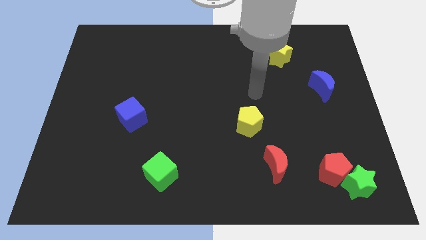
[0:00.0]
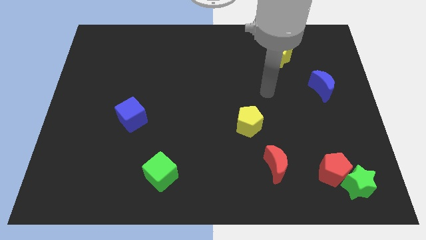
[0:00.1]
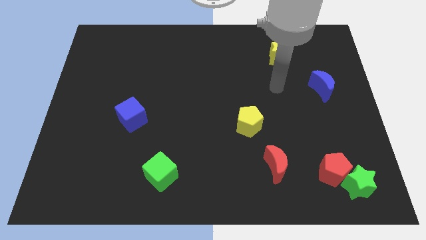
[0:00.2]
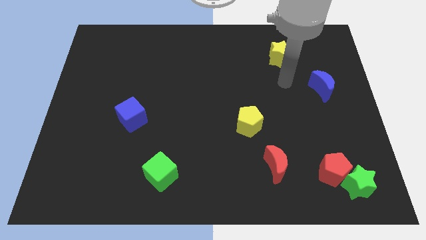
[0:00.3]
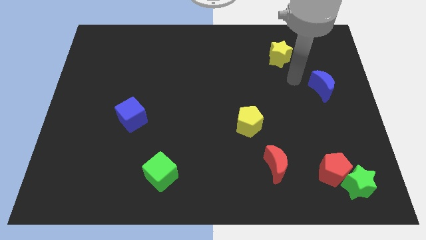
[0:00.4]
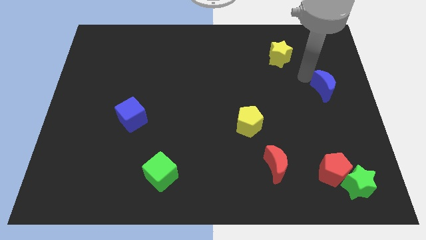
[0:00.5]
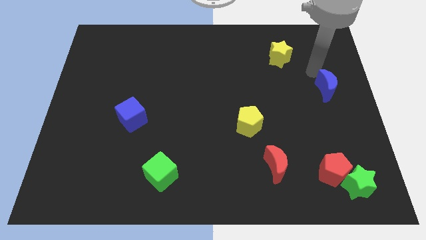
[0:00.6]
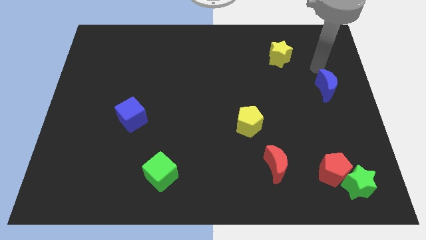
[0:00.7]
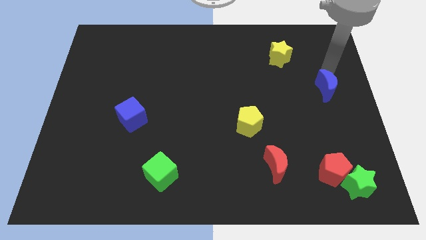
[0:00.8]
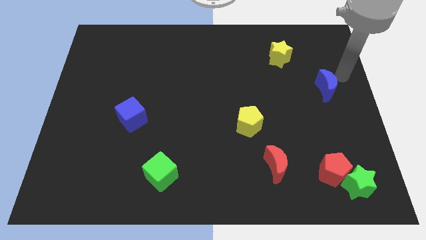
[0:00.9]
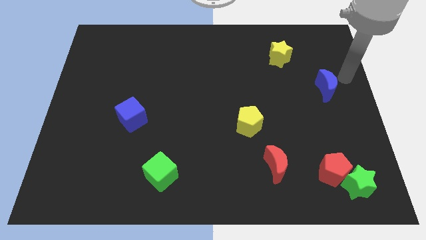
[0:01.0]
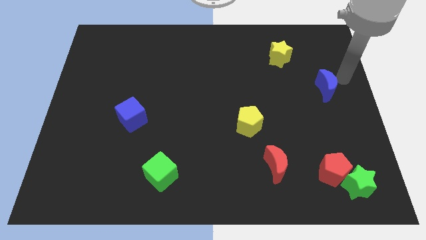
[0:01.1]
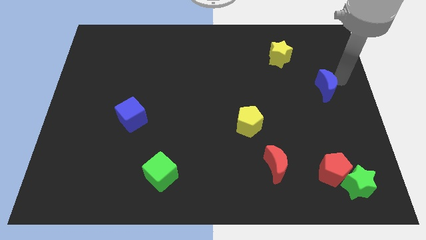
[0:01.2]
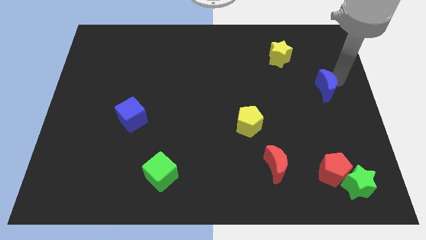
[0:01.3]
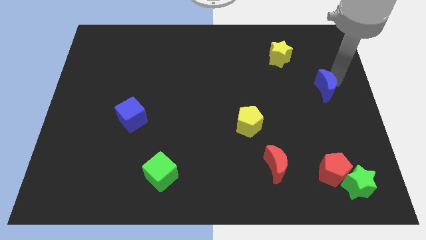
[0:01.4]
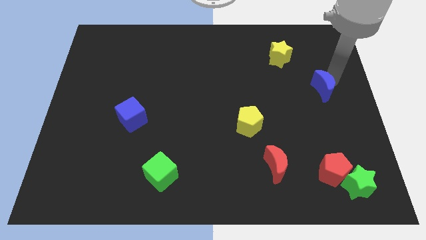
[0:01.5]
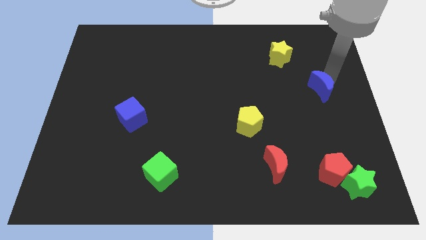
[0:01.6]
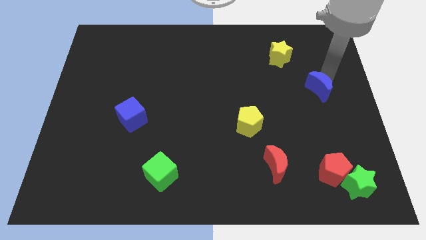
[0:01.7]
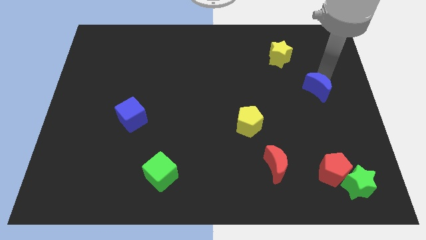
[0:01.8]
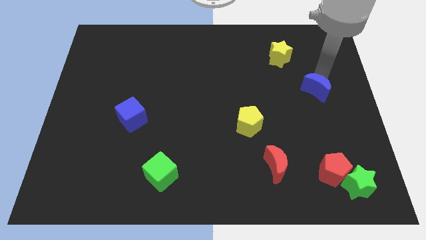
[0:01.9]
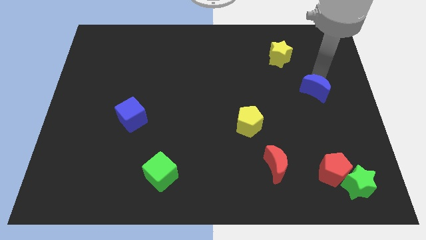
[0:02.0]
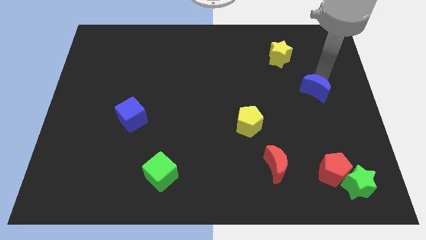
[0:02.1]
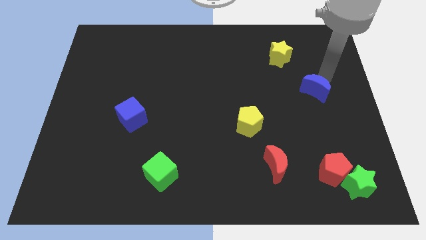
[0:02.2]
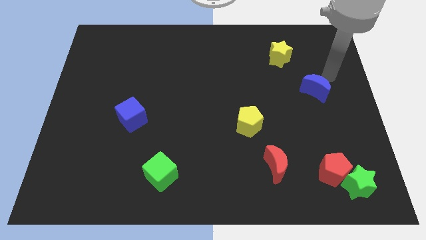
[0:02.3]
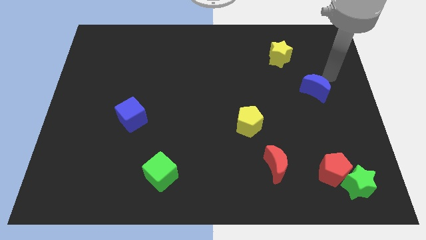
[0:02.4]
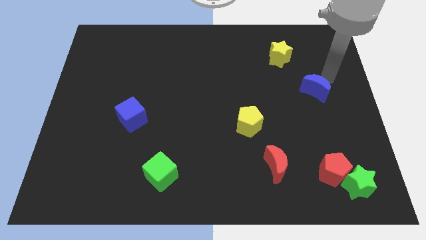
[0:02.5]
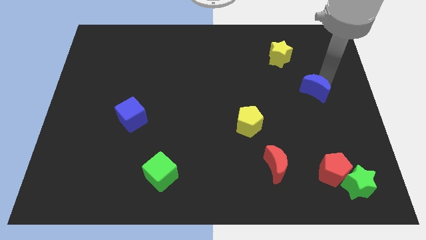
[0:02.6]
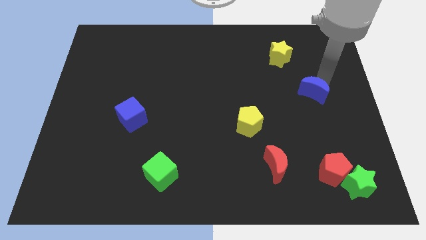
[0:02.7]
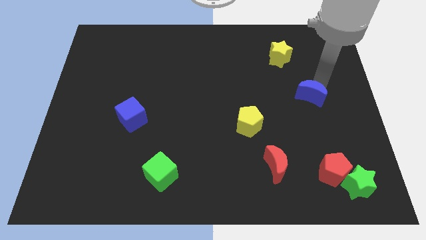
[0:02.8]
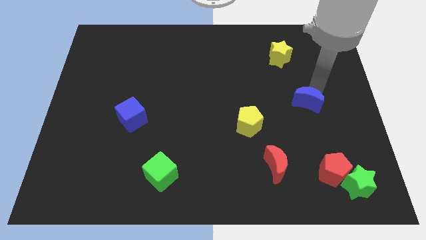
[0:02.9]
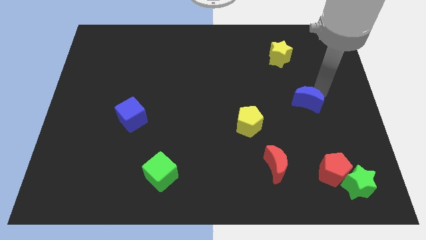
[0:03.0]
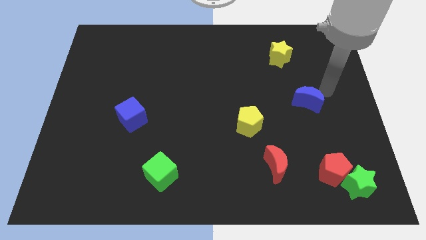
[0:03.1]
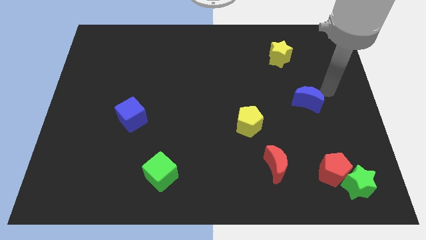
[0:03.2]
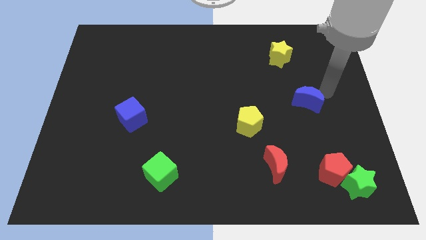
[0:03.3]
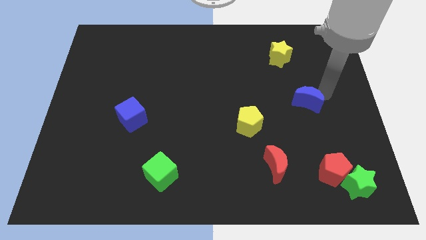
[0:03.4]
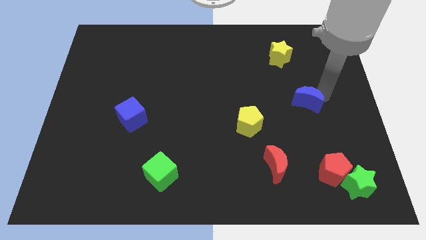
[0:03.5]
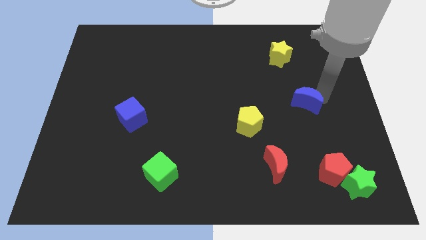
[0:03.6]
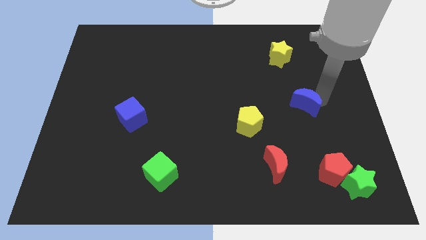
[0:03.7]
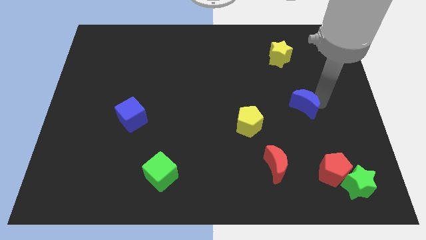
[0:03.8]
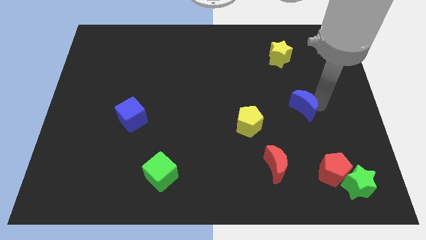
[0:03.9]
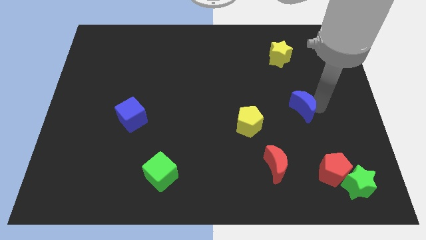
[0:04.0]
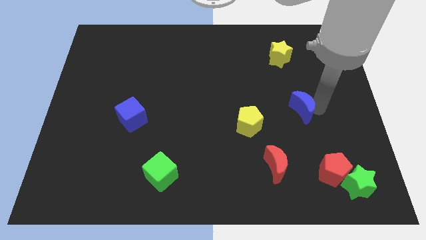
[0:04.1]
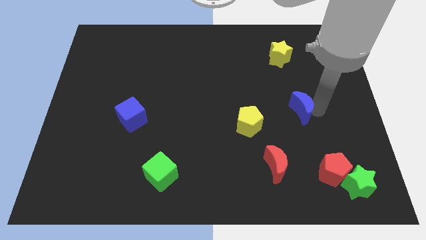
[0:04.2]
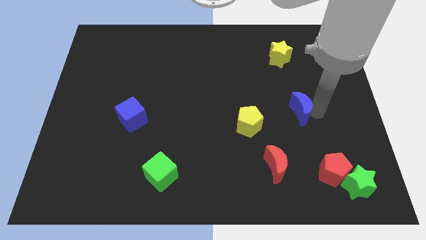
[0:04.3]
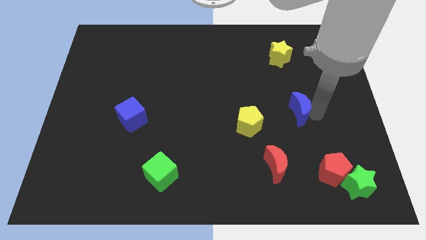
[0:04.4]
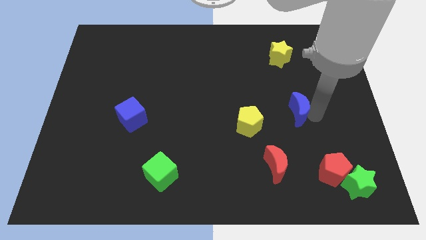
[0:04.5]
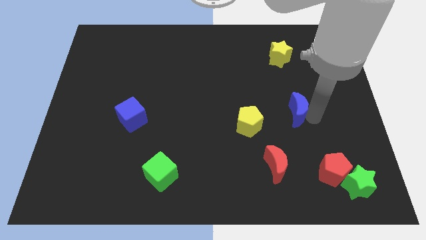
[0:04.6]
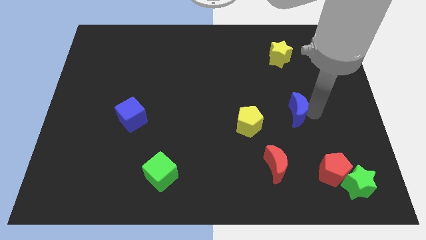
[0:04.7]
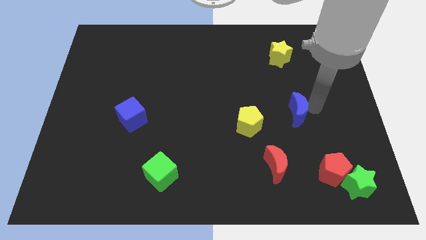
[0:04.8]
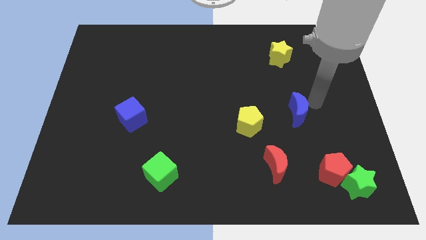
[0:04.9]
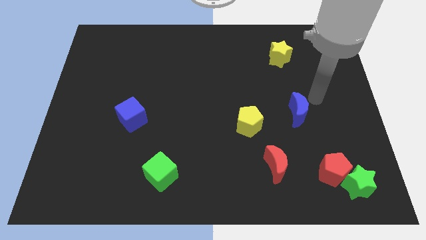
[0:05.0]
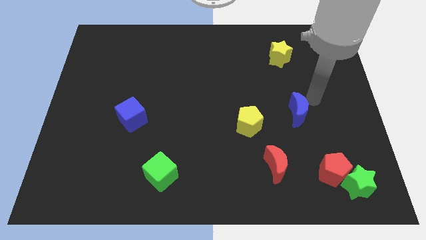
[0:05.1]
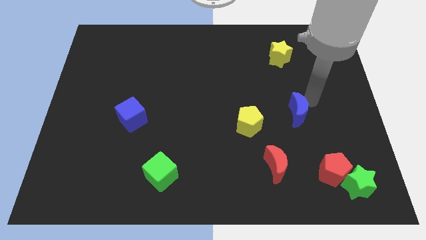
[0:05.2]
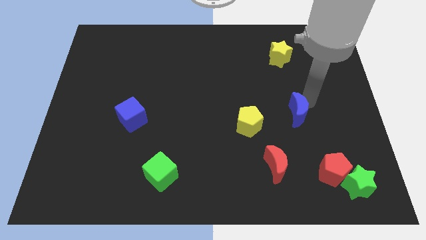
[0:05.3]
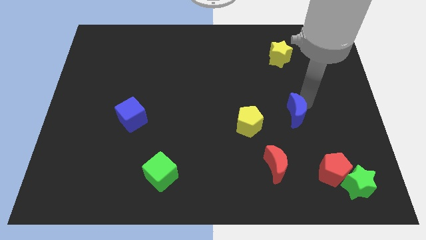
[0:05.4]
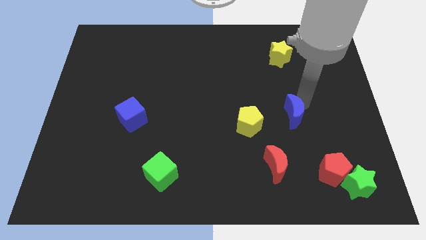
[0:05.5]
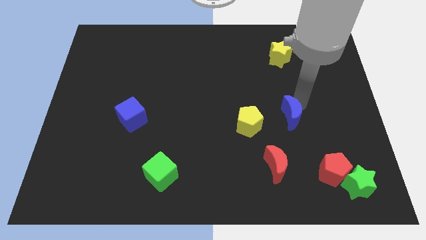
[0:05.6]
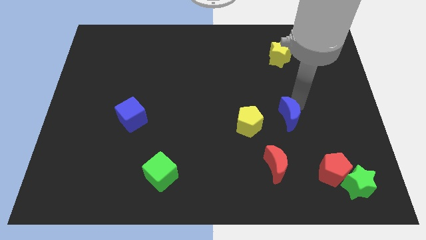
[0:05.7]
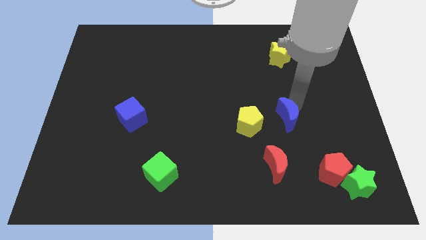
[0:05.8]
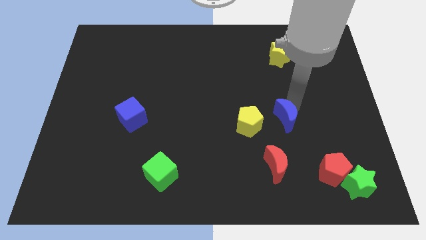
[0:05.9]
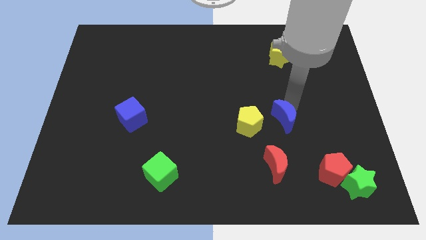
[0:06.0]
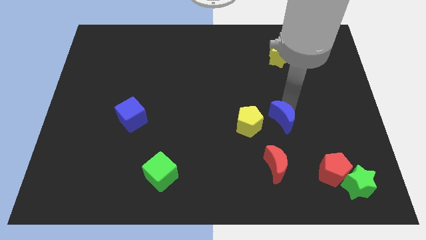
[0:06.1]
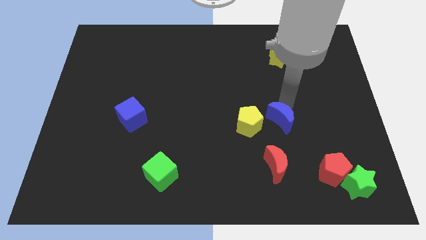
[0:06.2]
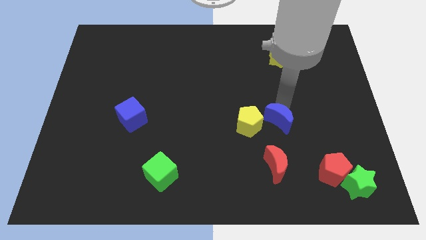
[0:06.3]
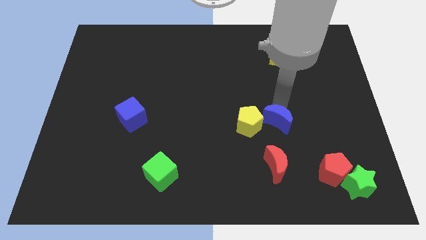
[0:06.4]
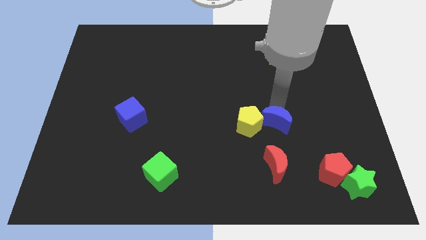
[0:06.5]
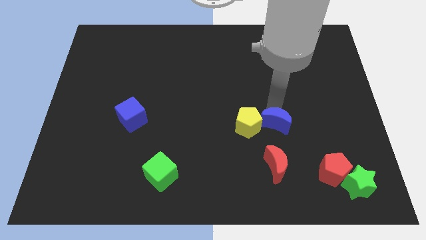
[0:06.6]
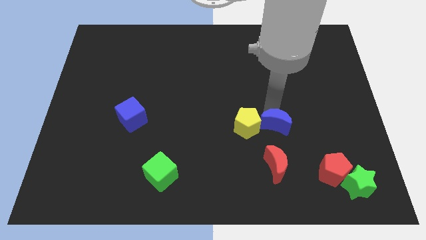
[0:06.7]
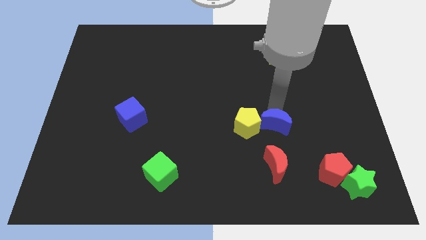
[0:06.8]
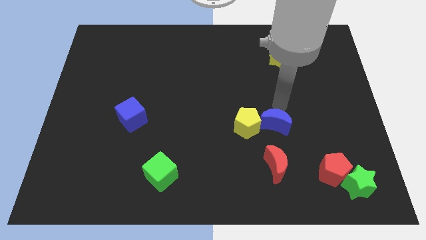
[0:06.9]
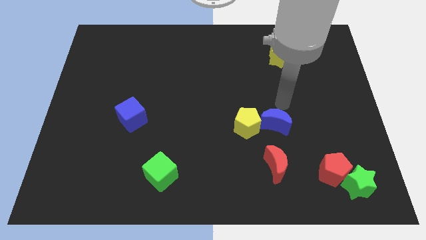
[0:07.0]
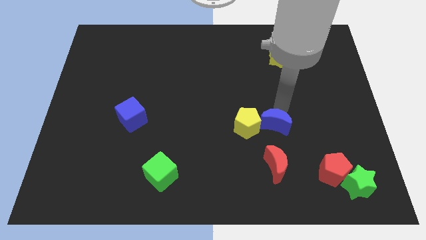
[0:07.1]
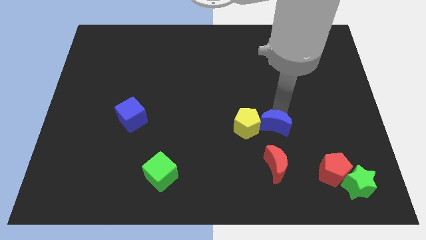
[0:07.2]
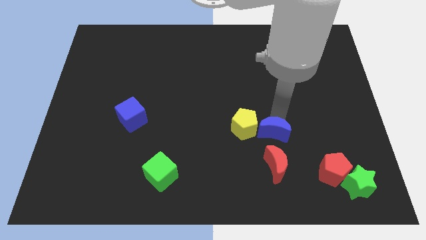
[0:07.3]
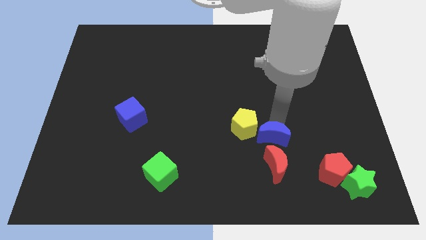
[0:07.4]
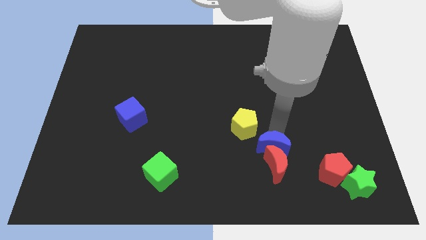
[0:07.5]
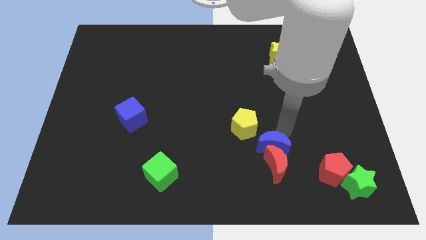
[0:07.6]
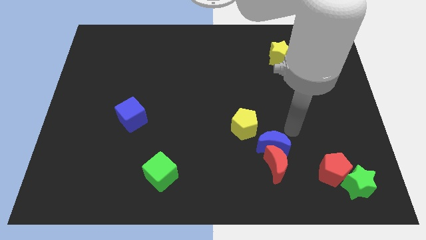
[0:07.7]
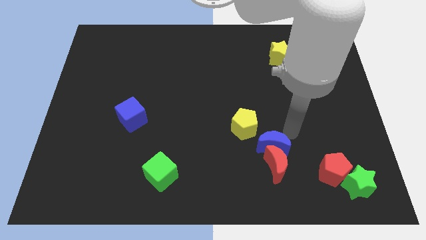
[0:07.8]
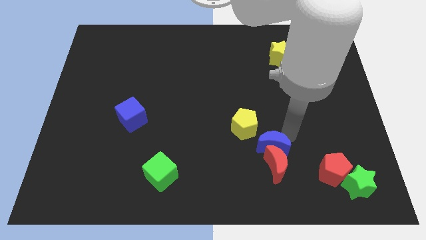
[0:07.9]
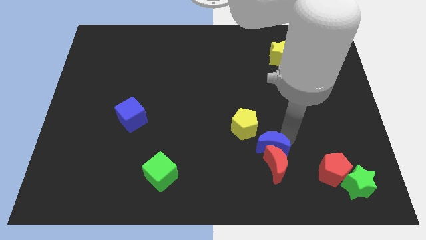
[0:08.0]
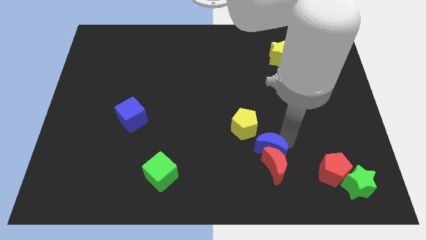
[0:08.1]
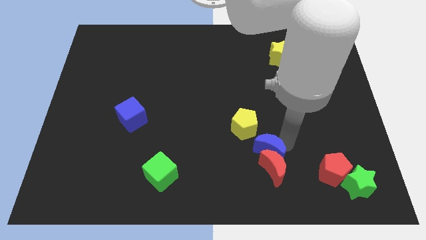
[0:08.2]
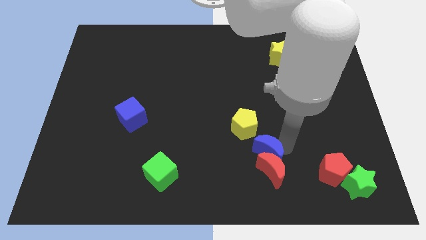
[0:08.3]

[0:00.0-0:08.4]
put the blue moon below the yellow pentagon
